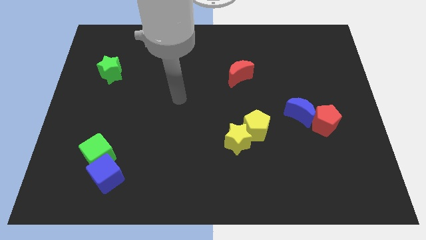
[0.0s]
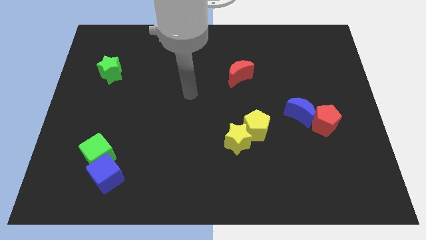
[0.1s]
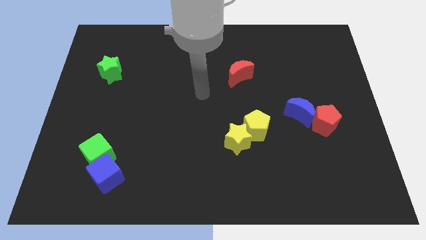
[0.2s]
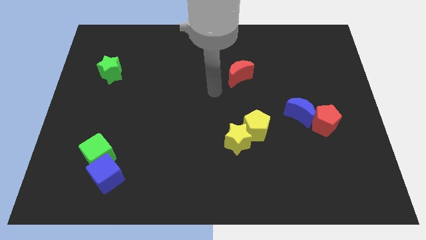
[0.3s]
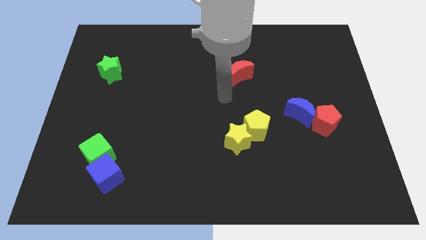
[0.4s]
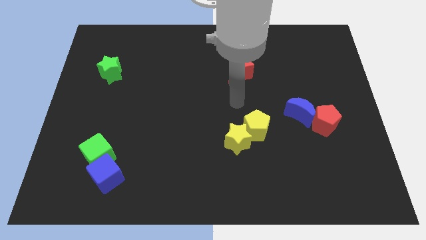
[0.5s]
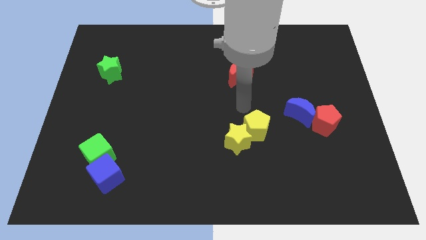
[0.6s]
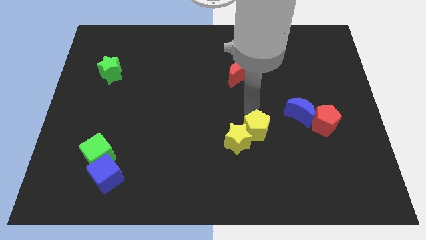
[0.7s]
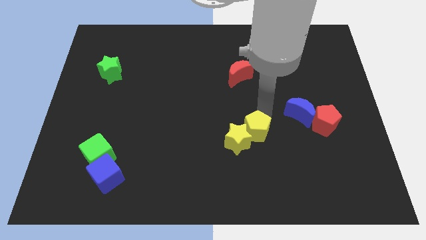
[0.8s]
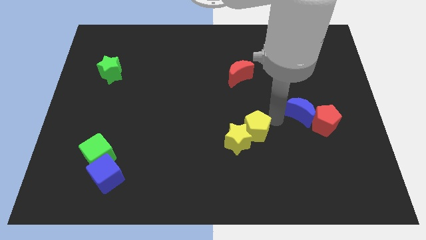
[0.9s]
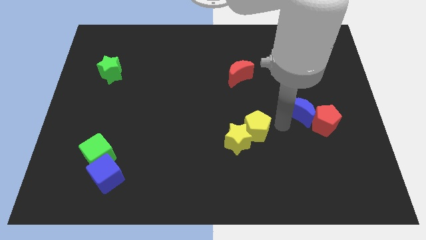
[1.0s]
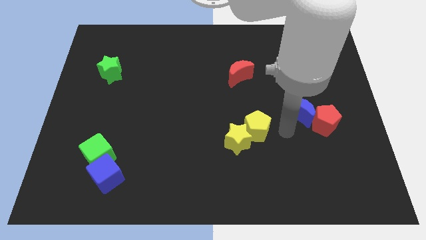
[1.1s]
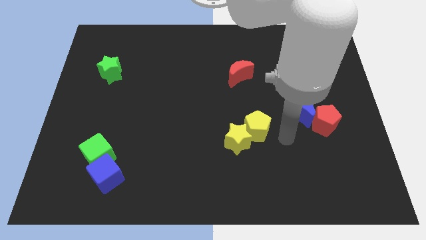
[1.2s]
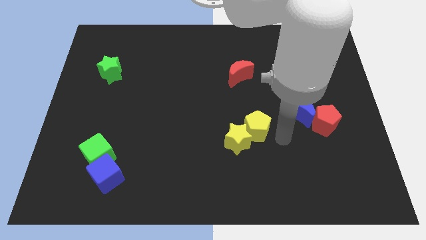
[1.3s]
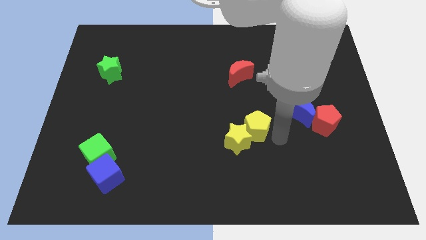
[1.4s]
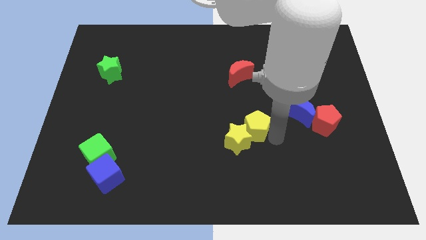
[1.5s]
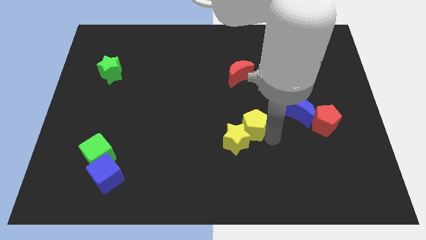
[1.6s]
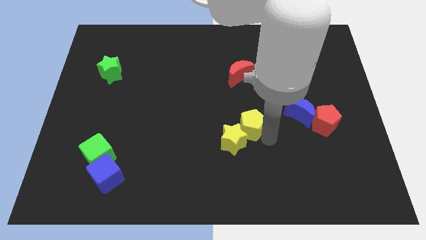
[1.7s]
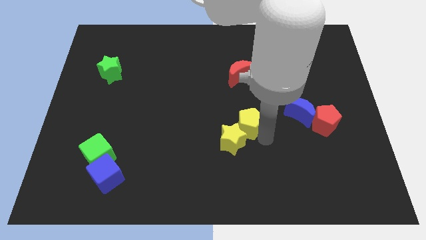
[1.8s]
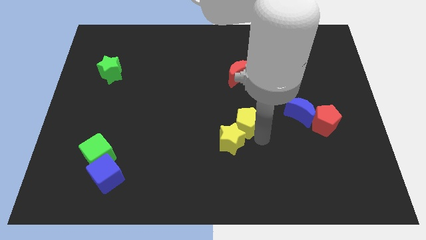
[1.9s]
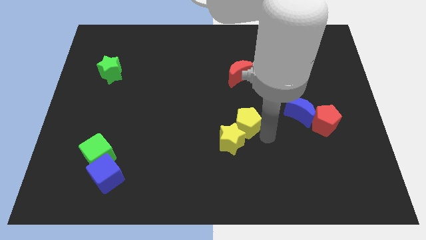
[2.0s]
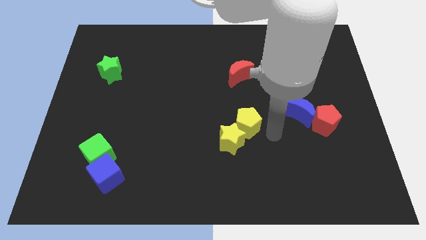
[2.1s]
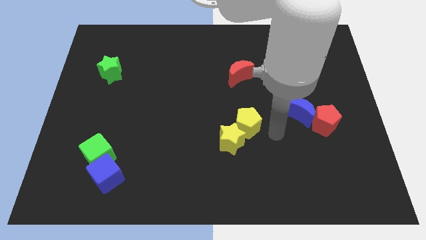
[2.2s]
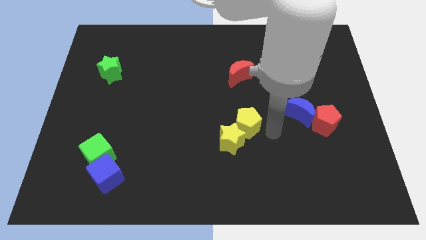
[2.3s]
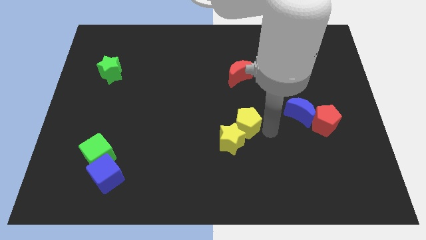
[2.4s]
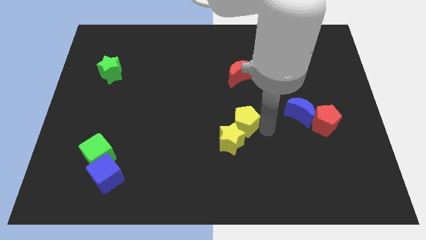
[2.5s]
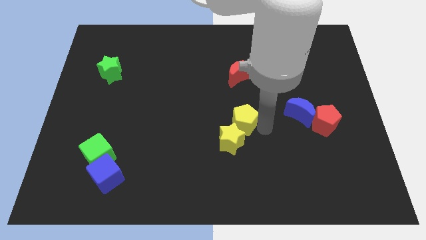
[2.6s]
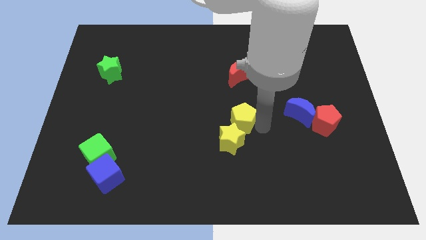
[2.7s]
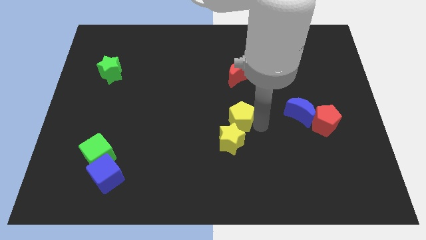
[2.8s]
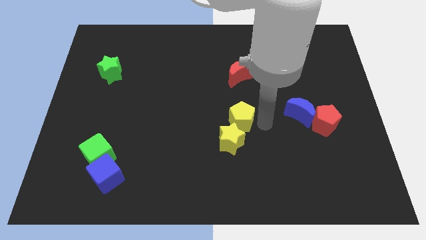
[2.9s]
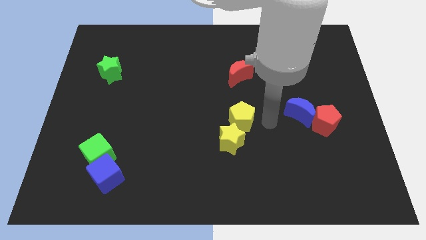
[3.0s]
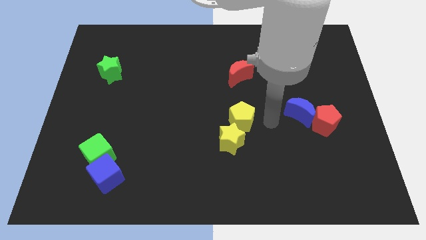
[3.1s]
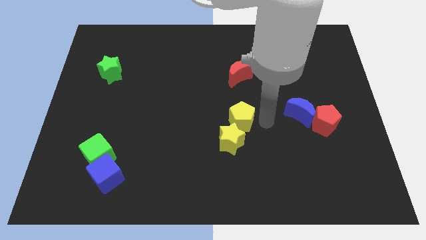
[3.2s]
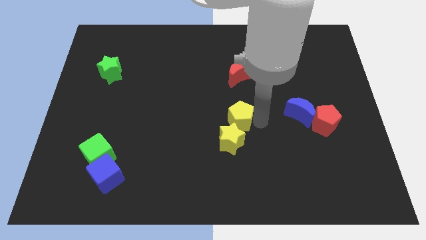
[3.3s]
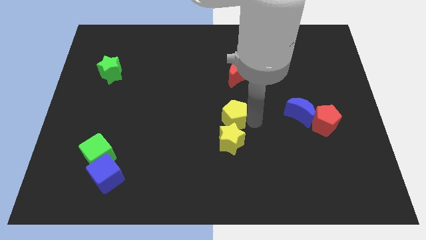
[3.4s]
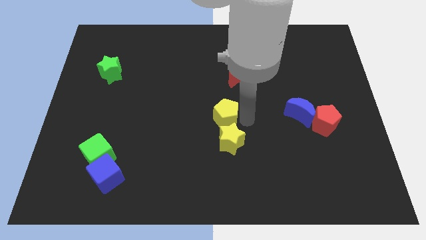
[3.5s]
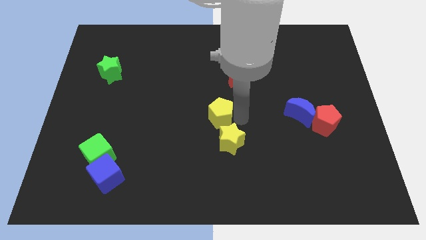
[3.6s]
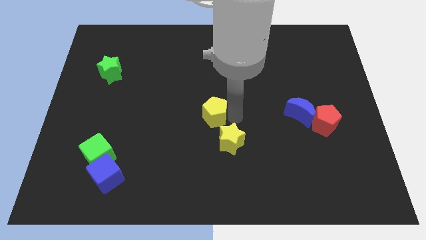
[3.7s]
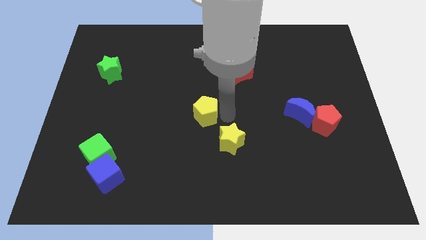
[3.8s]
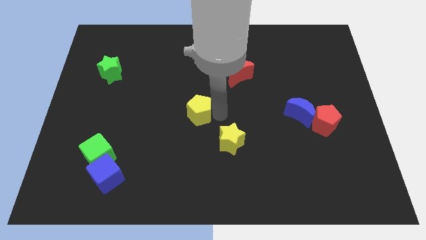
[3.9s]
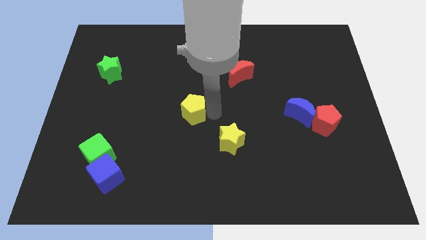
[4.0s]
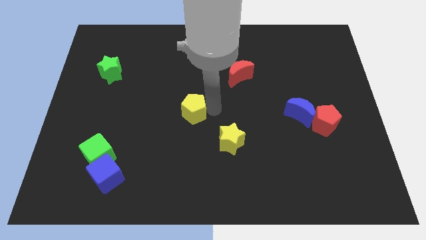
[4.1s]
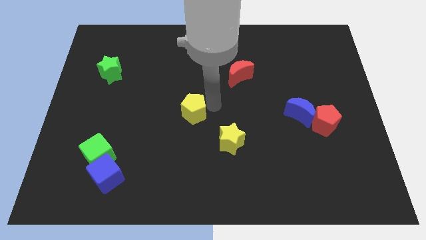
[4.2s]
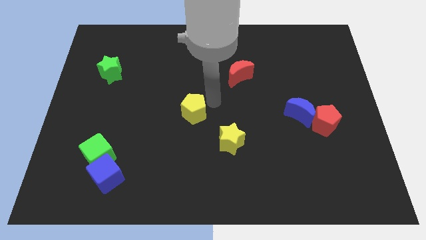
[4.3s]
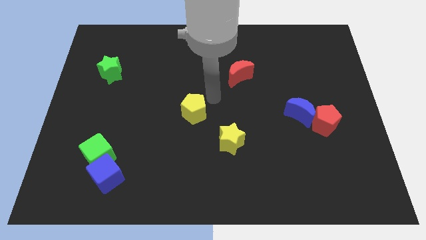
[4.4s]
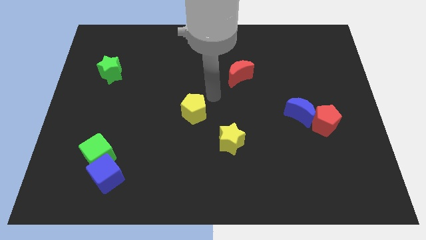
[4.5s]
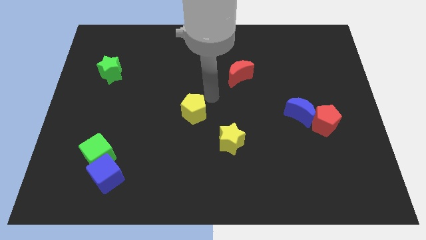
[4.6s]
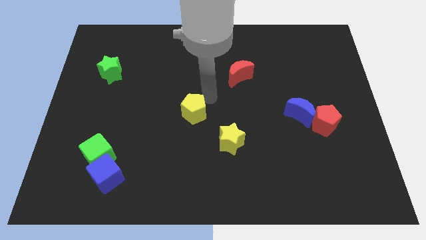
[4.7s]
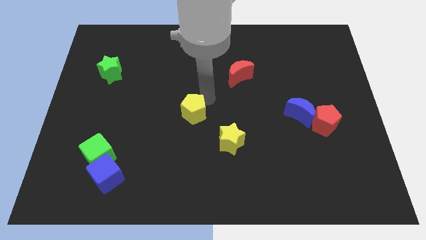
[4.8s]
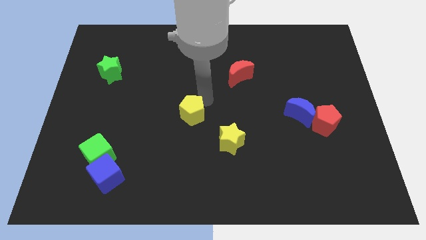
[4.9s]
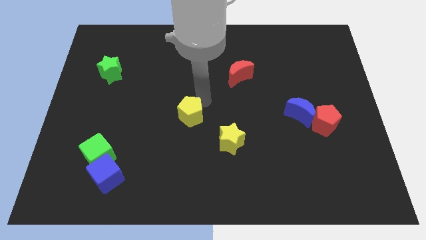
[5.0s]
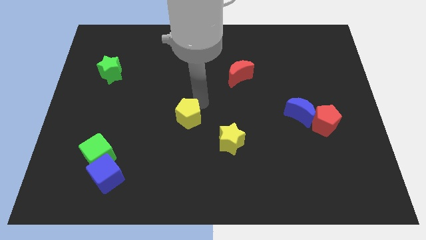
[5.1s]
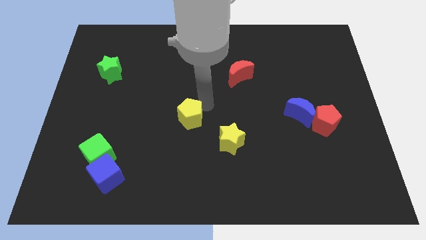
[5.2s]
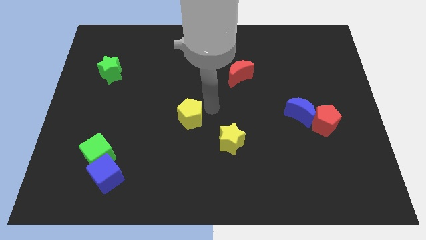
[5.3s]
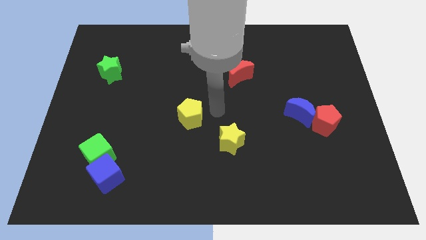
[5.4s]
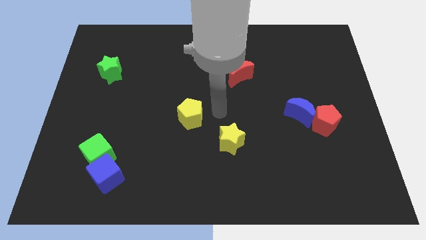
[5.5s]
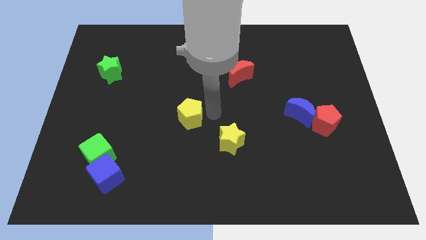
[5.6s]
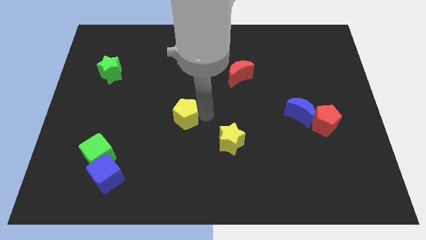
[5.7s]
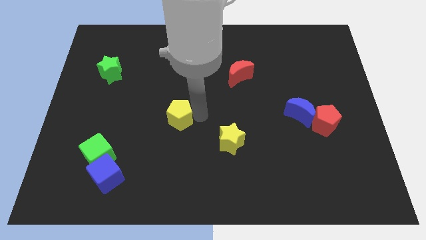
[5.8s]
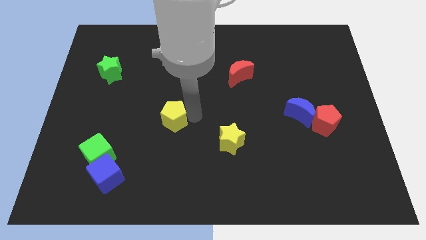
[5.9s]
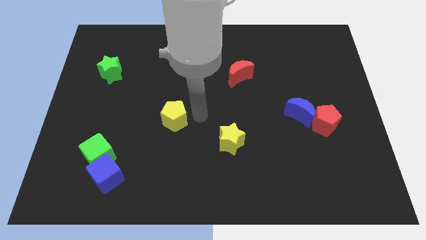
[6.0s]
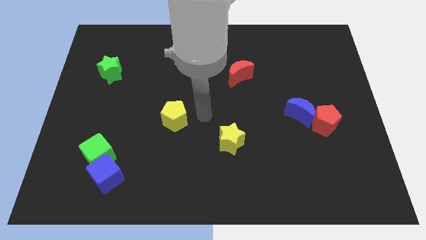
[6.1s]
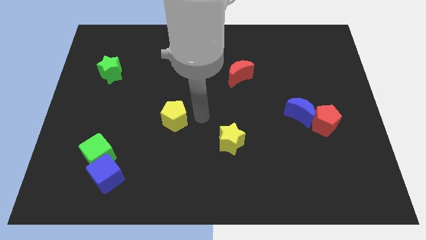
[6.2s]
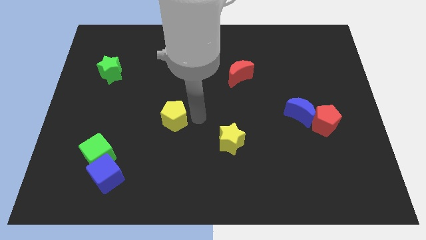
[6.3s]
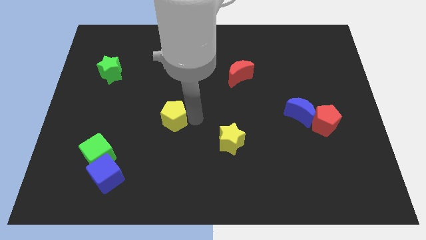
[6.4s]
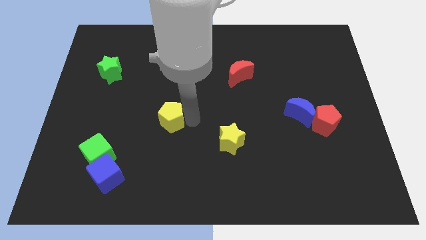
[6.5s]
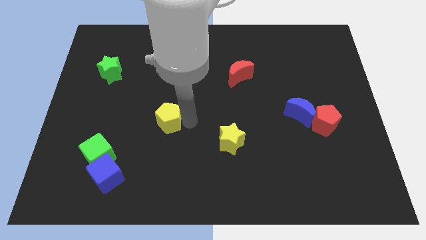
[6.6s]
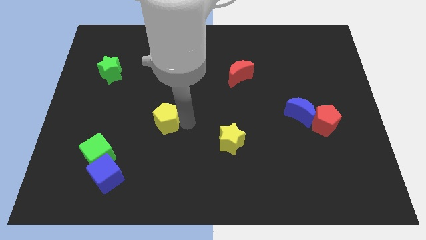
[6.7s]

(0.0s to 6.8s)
push the yellow pentagon to the left

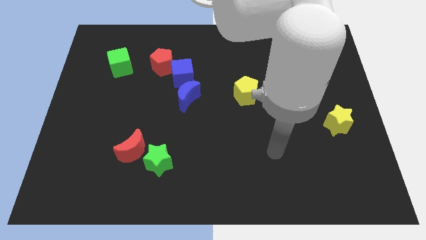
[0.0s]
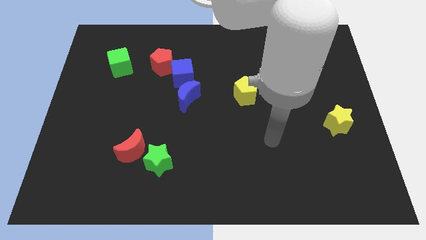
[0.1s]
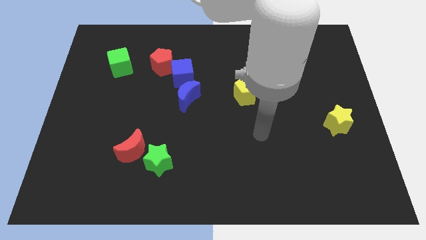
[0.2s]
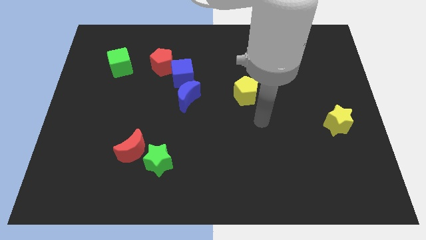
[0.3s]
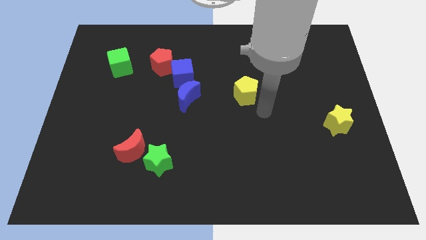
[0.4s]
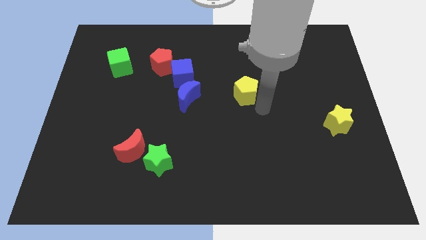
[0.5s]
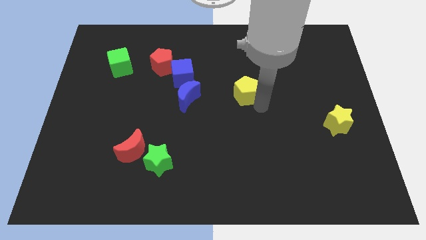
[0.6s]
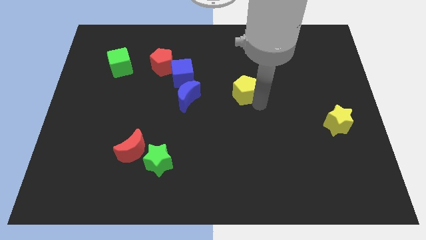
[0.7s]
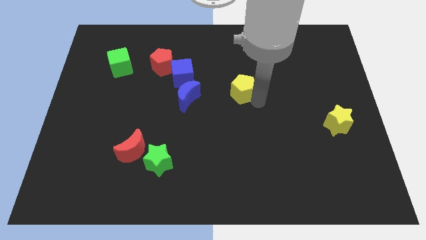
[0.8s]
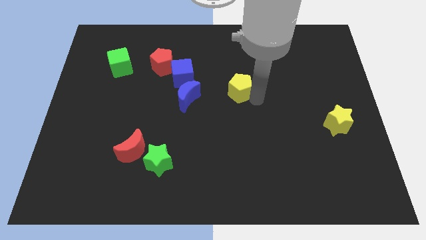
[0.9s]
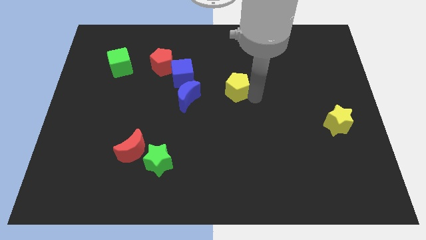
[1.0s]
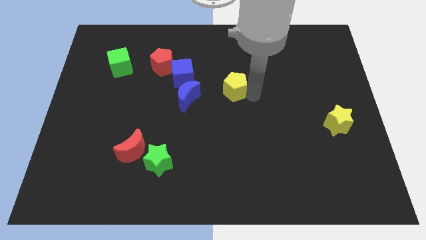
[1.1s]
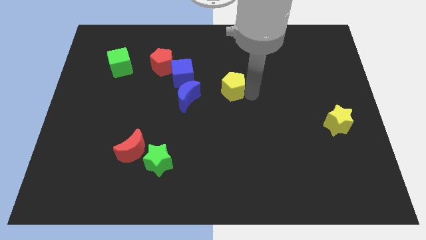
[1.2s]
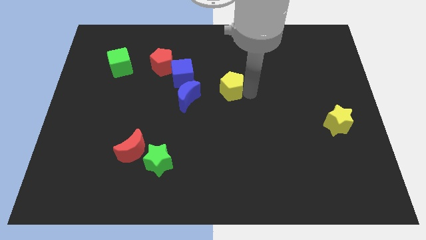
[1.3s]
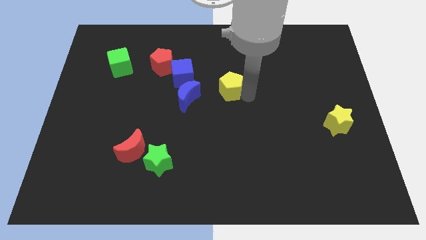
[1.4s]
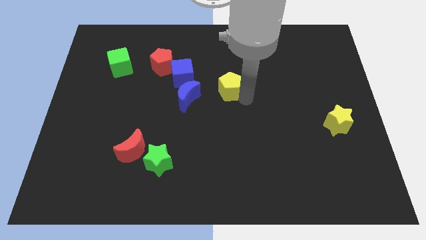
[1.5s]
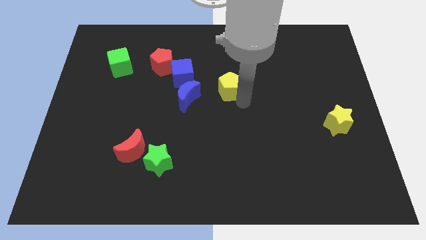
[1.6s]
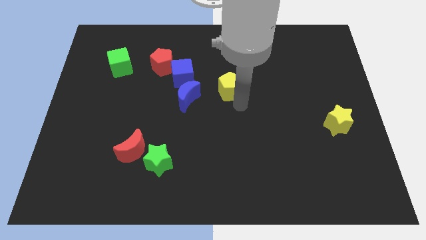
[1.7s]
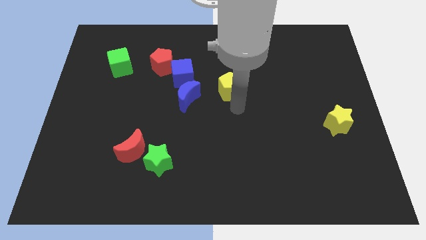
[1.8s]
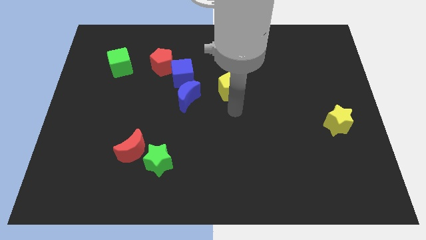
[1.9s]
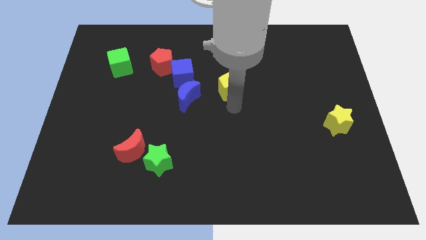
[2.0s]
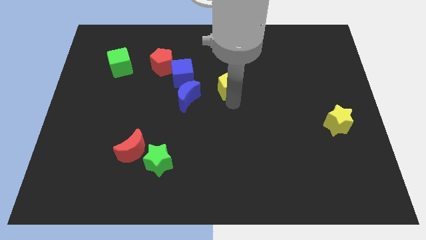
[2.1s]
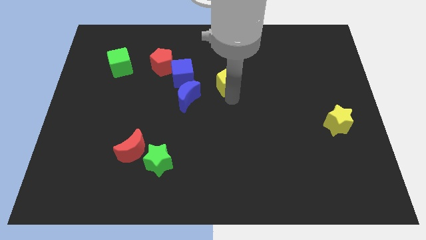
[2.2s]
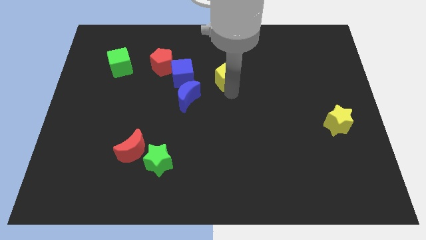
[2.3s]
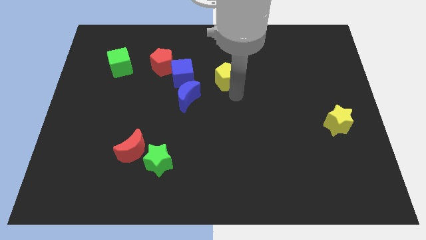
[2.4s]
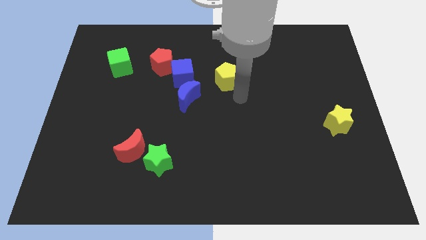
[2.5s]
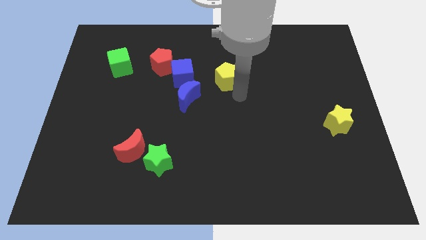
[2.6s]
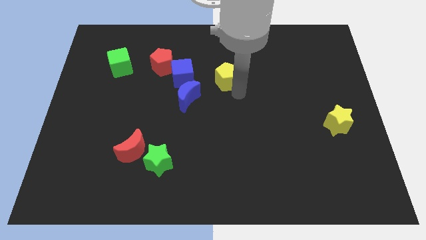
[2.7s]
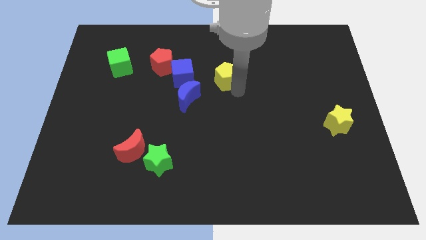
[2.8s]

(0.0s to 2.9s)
push the yellow pentagon a little up and left
